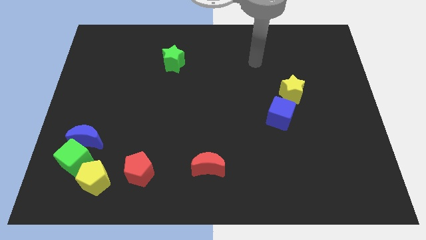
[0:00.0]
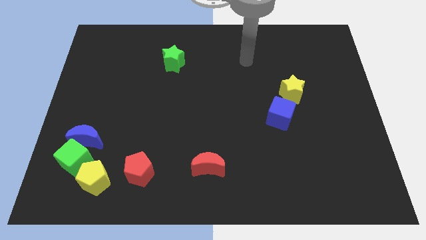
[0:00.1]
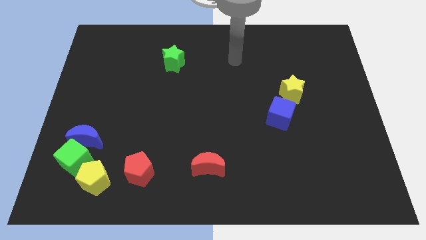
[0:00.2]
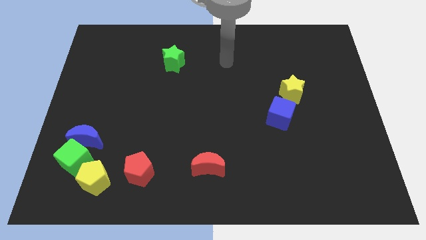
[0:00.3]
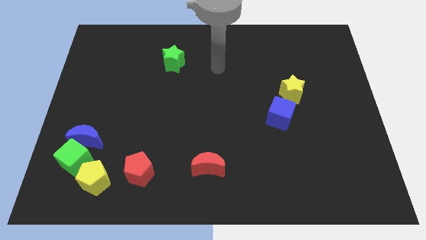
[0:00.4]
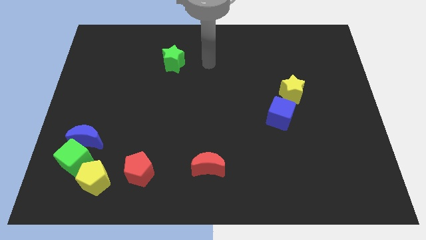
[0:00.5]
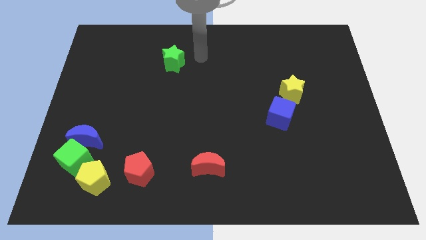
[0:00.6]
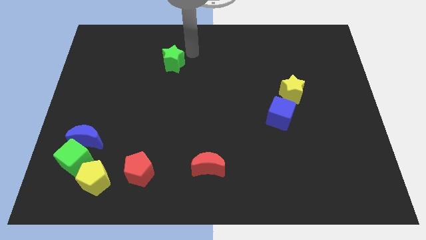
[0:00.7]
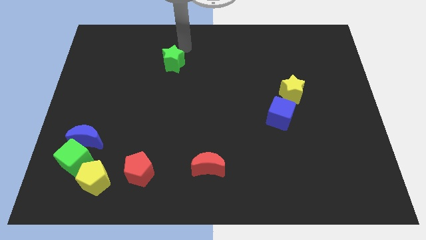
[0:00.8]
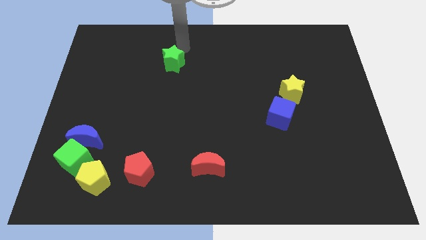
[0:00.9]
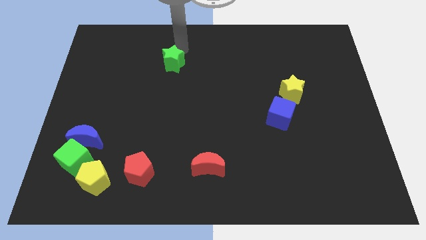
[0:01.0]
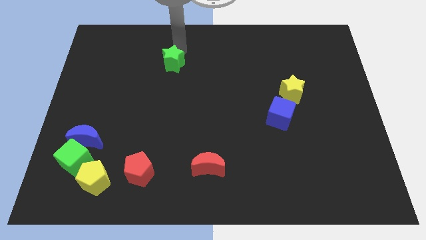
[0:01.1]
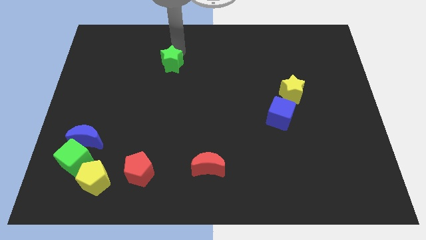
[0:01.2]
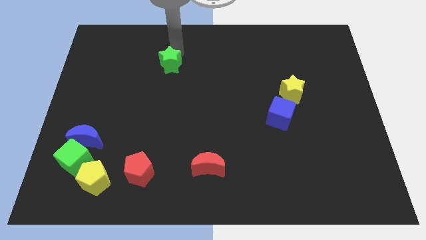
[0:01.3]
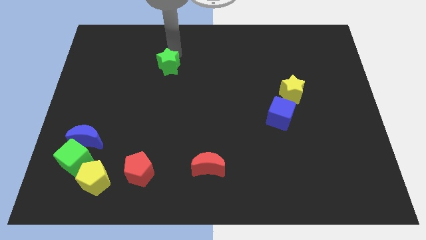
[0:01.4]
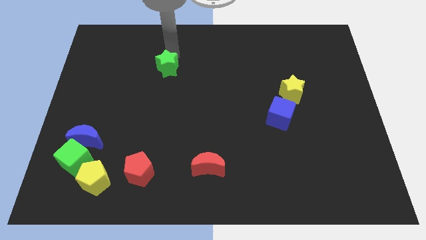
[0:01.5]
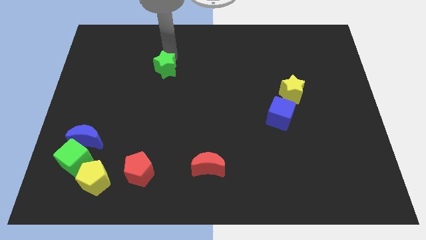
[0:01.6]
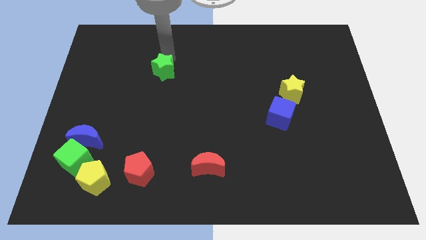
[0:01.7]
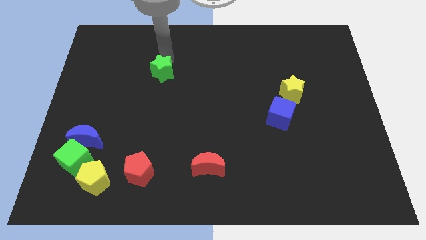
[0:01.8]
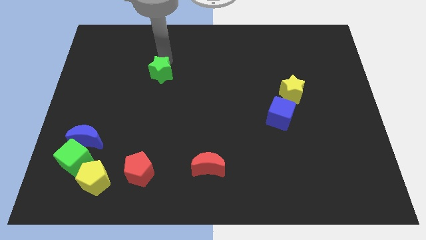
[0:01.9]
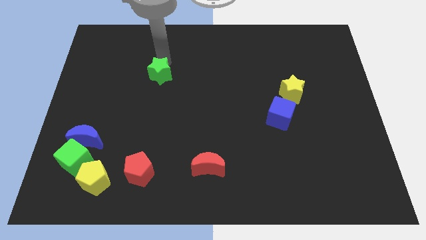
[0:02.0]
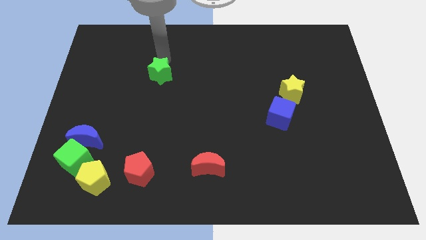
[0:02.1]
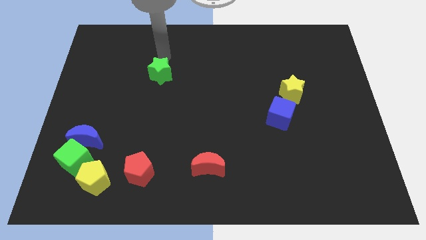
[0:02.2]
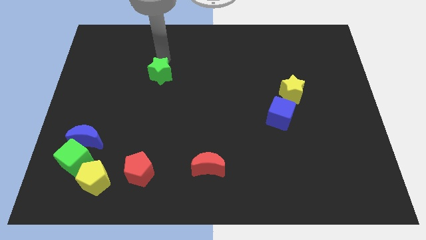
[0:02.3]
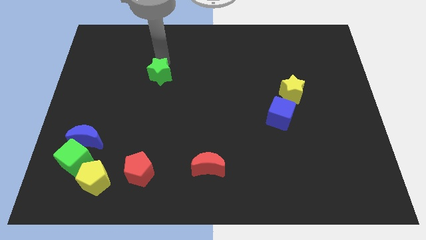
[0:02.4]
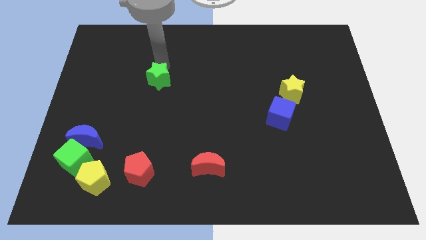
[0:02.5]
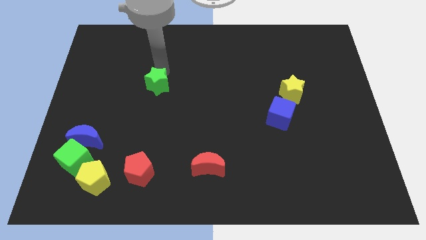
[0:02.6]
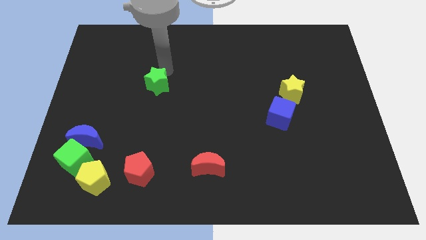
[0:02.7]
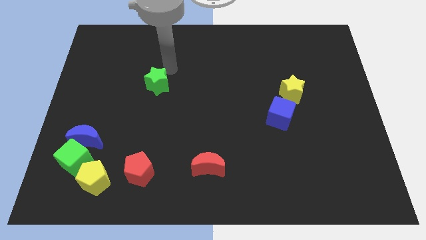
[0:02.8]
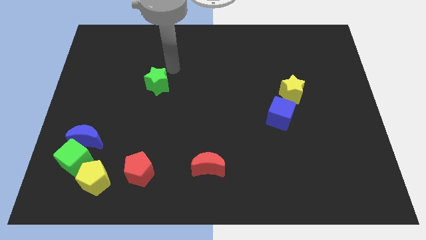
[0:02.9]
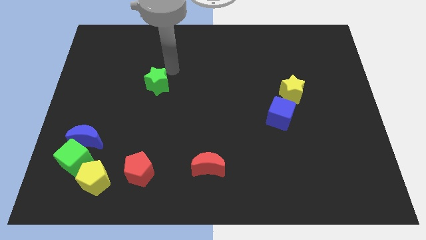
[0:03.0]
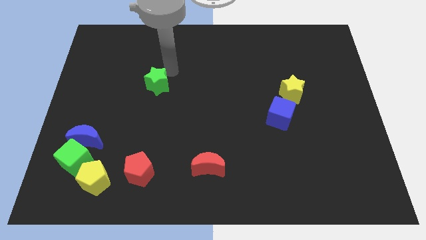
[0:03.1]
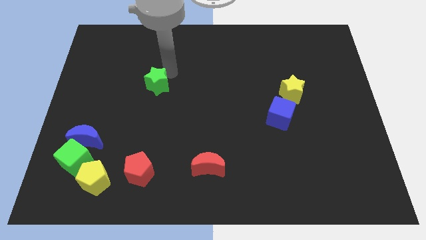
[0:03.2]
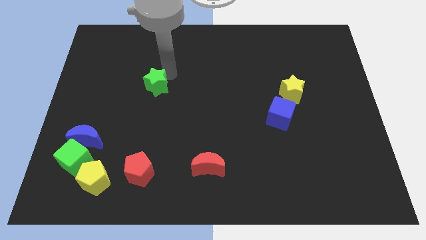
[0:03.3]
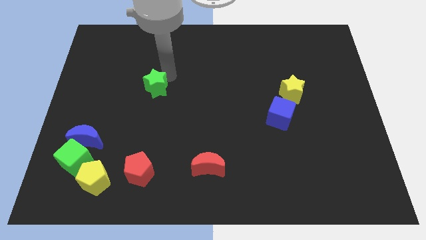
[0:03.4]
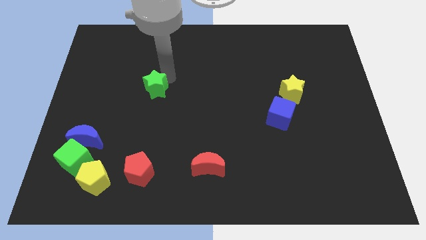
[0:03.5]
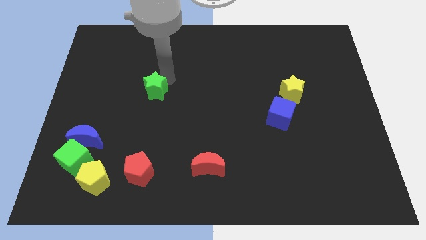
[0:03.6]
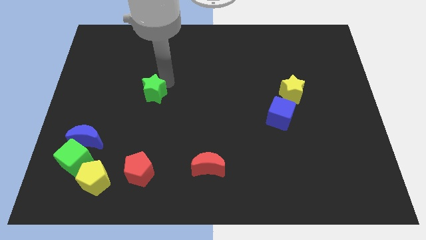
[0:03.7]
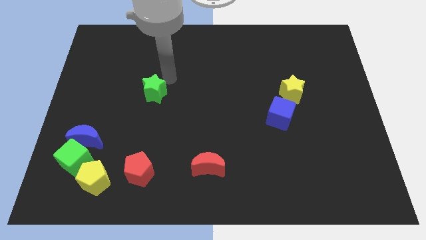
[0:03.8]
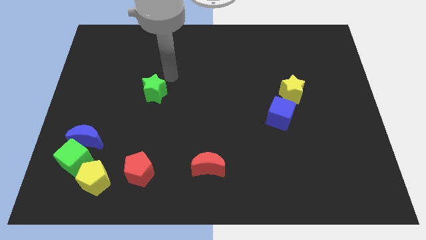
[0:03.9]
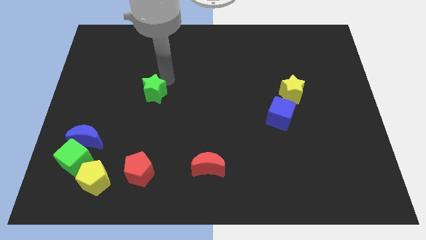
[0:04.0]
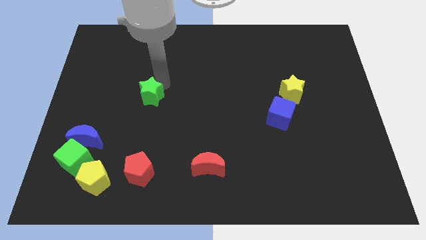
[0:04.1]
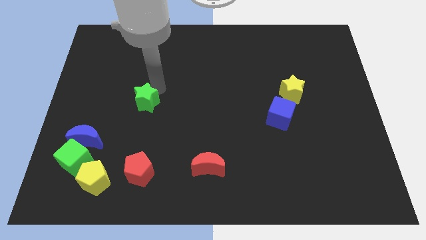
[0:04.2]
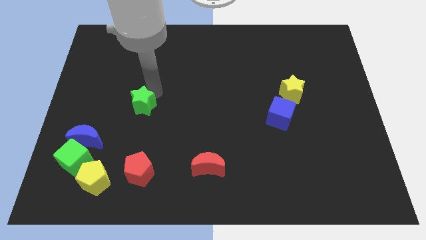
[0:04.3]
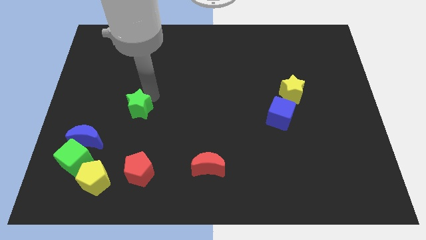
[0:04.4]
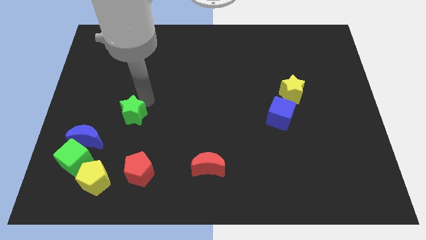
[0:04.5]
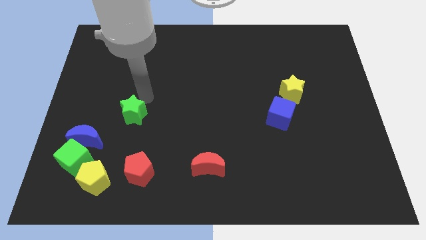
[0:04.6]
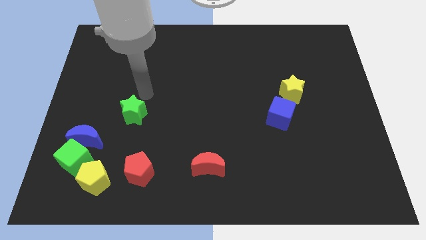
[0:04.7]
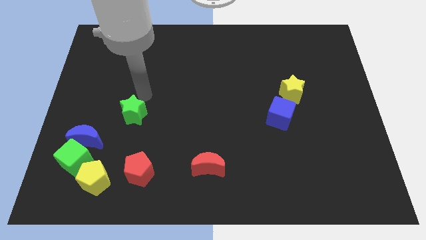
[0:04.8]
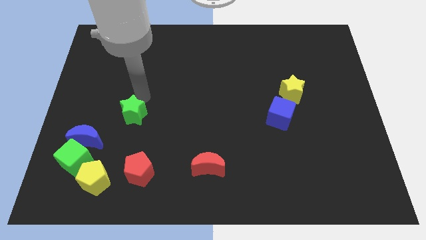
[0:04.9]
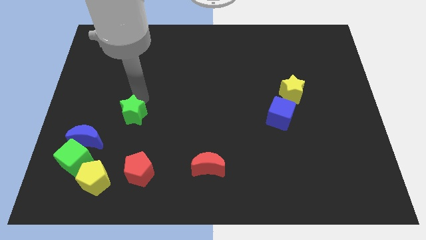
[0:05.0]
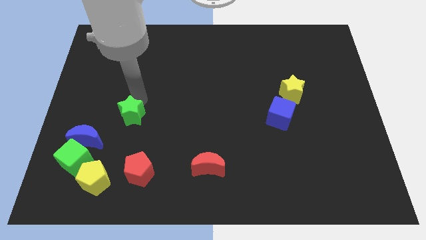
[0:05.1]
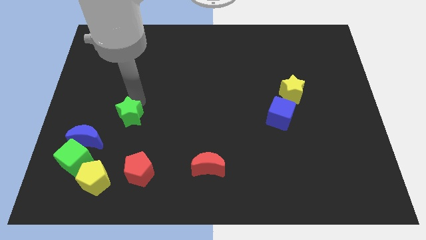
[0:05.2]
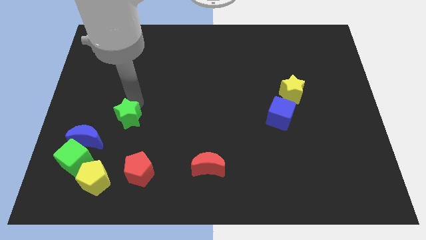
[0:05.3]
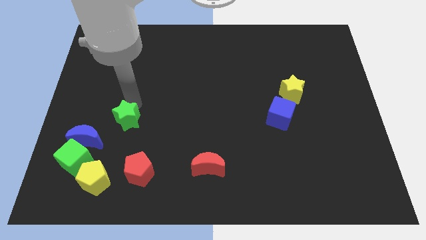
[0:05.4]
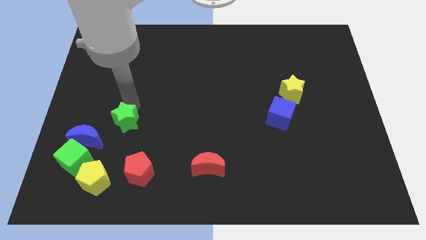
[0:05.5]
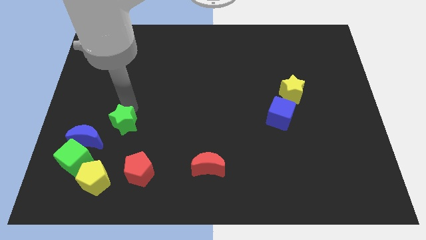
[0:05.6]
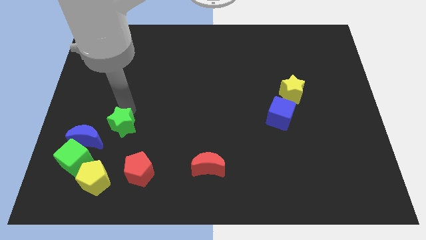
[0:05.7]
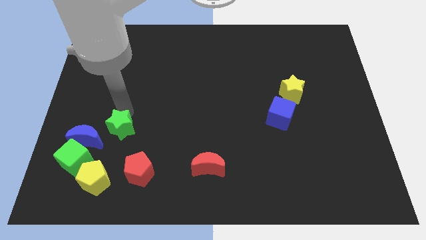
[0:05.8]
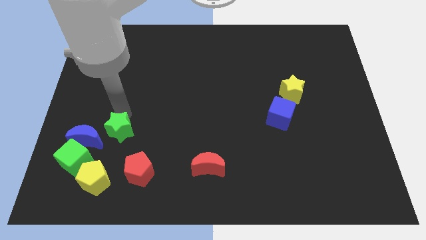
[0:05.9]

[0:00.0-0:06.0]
slide the green star to the top left of the red pentagon

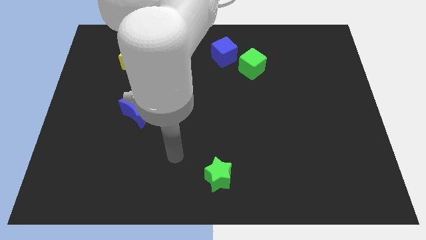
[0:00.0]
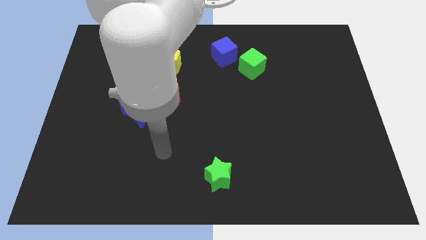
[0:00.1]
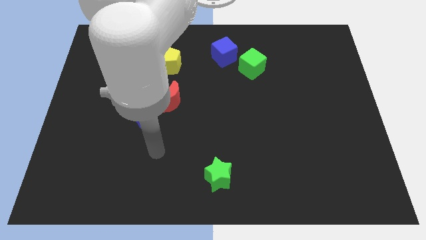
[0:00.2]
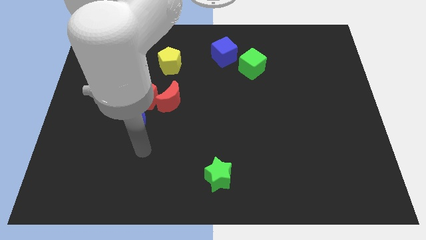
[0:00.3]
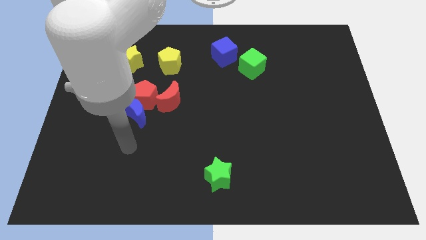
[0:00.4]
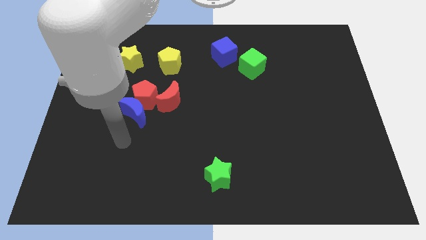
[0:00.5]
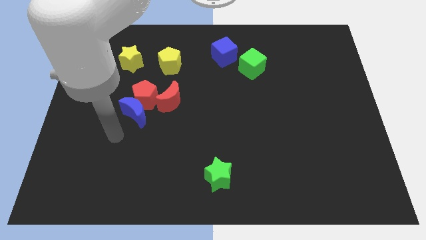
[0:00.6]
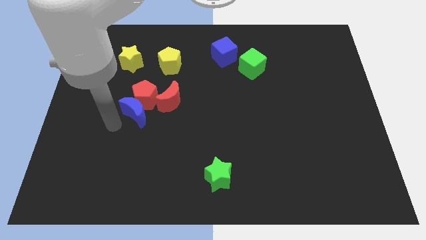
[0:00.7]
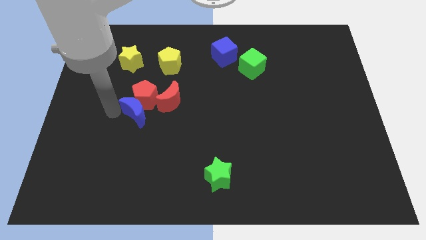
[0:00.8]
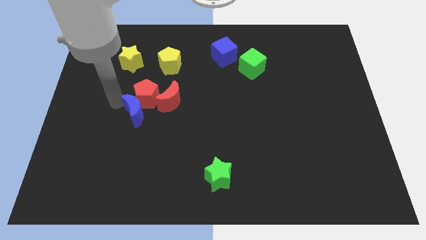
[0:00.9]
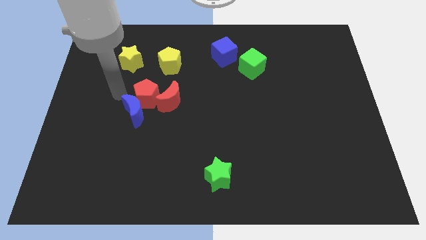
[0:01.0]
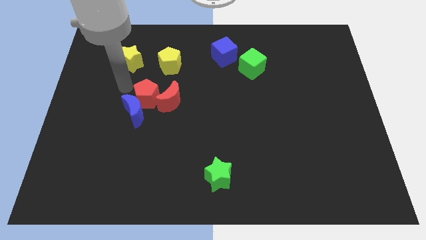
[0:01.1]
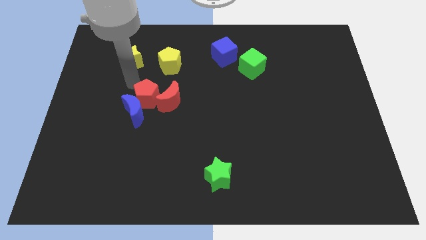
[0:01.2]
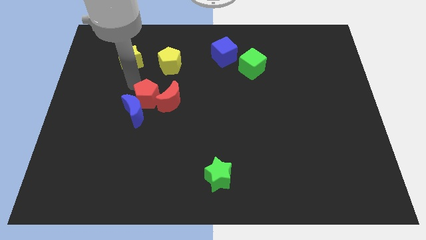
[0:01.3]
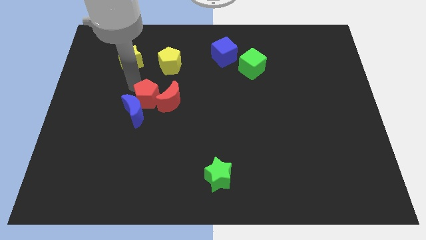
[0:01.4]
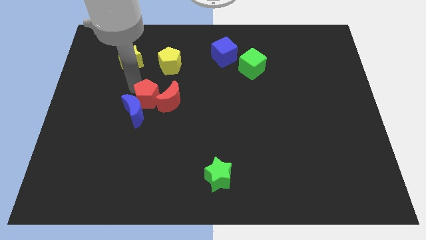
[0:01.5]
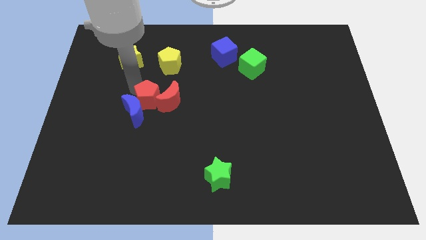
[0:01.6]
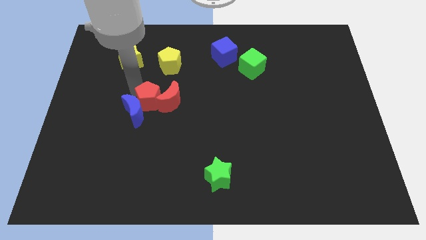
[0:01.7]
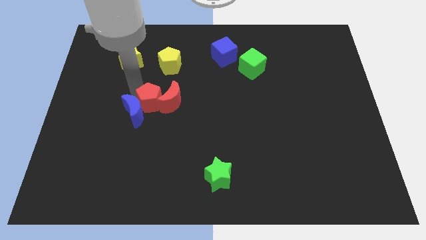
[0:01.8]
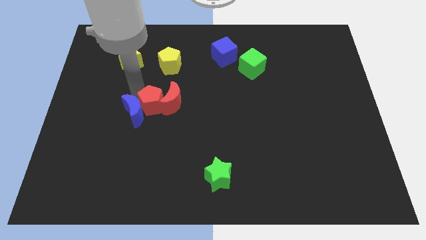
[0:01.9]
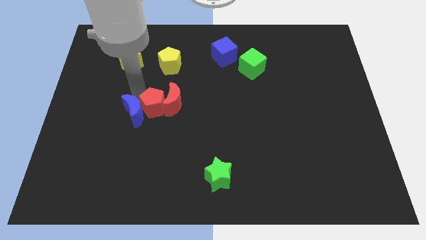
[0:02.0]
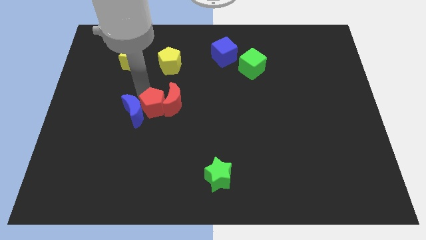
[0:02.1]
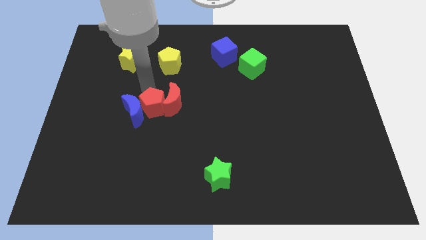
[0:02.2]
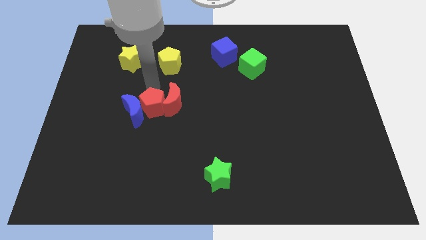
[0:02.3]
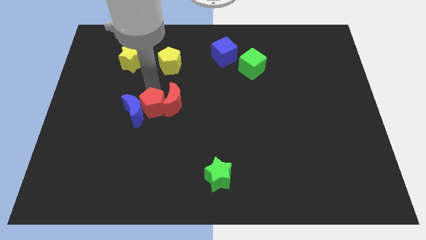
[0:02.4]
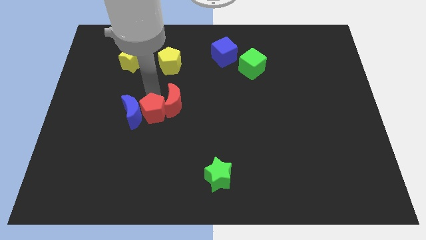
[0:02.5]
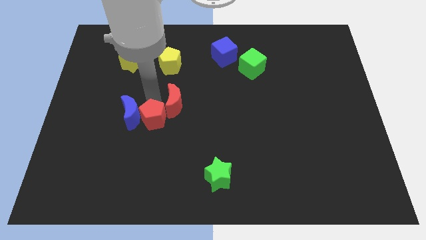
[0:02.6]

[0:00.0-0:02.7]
put the red pentagon to the bottom of the red moon
